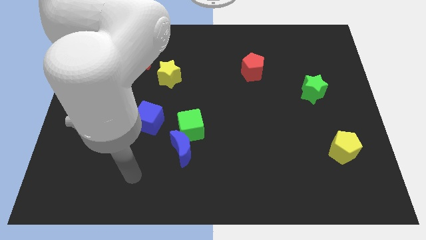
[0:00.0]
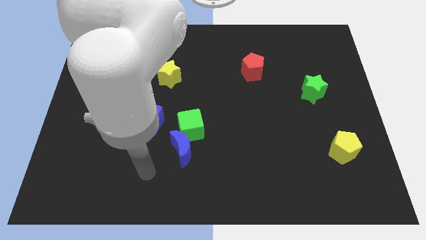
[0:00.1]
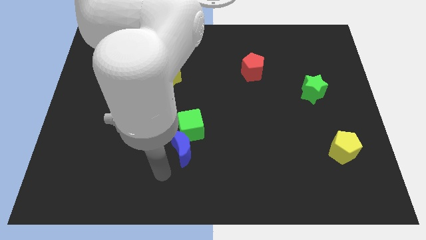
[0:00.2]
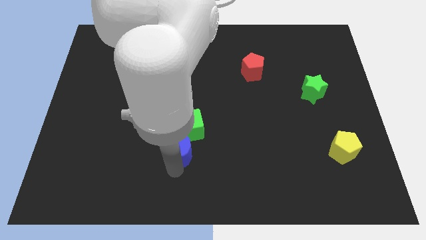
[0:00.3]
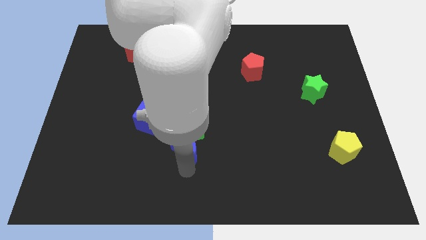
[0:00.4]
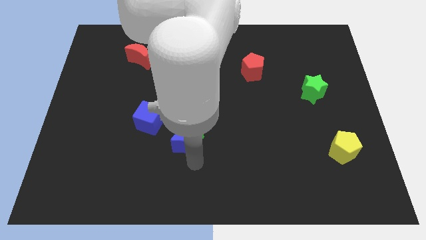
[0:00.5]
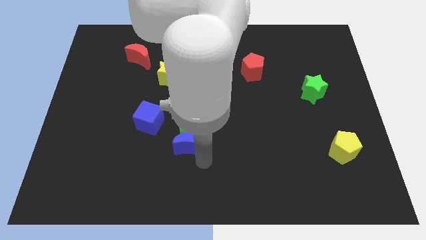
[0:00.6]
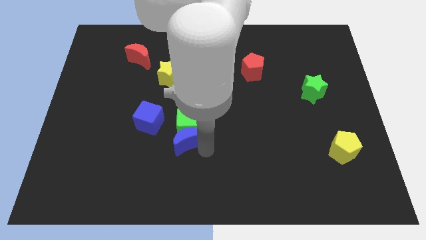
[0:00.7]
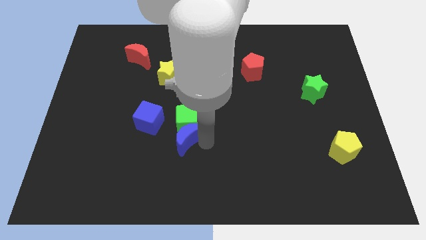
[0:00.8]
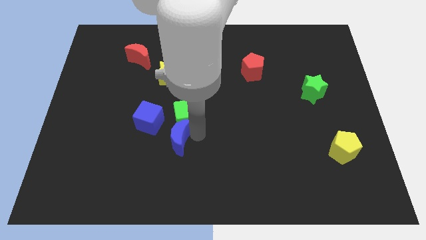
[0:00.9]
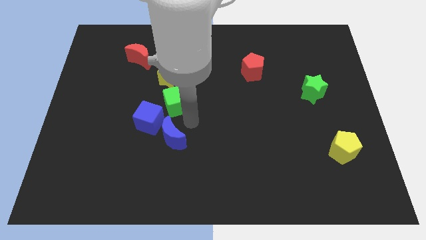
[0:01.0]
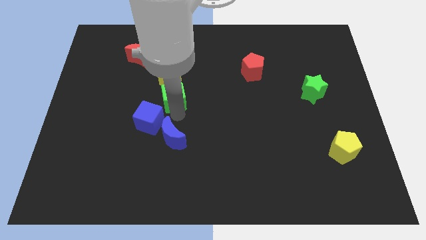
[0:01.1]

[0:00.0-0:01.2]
move the blue moon away from the green cube

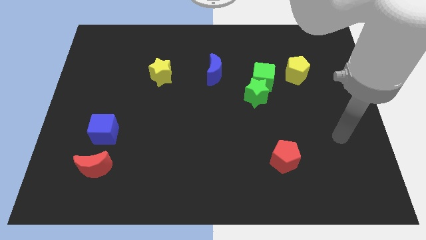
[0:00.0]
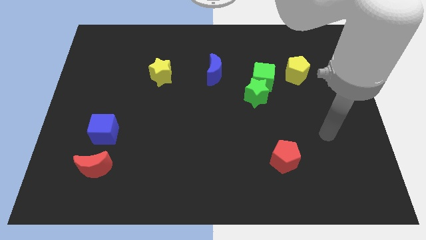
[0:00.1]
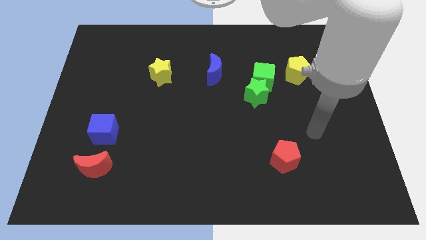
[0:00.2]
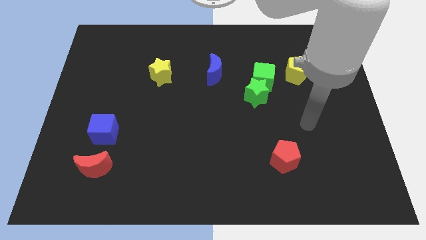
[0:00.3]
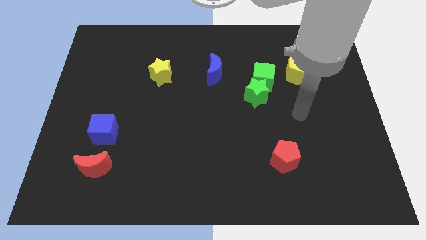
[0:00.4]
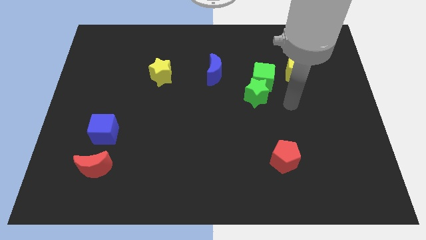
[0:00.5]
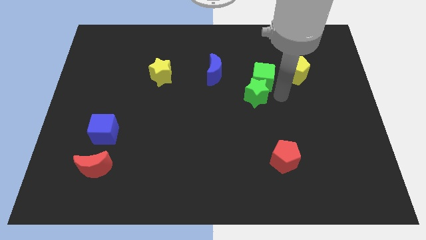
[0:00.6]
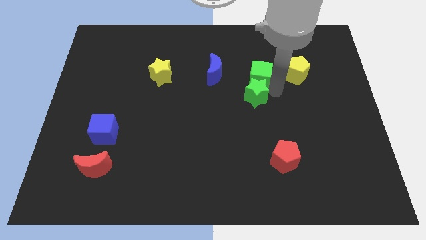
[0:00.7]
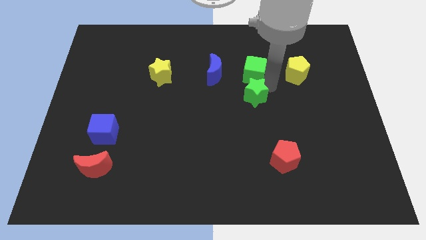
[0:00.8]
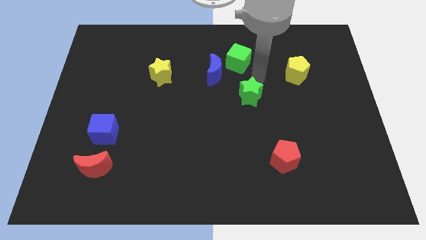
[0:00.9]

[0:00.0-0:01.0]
move the green star away from the green cube

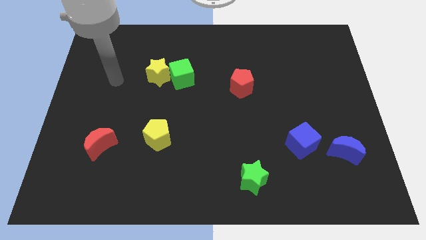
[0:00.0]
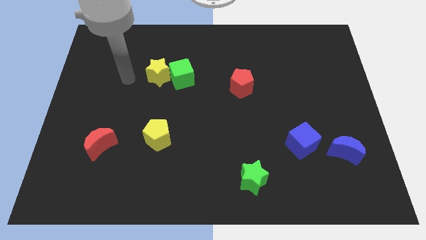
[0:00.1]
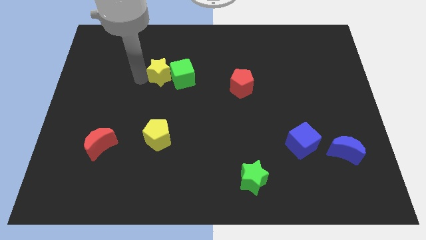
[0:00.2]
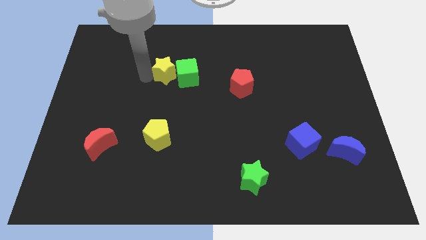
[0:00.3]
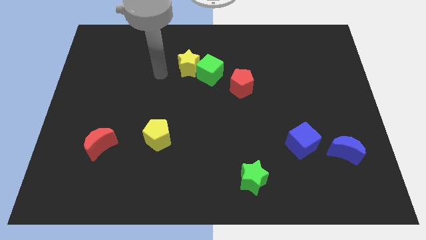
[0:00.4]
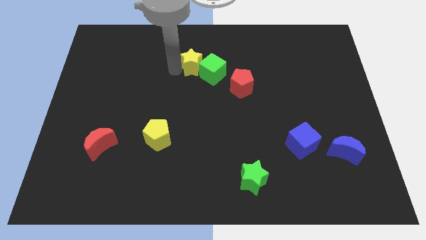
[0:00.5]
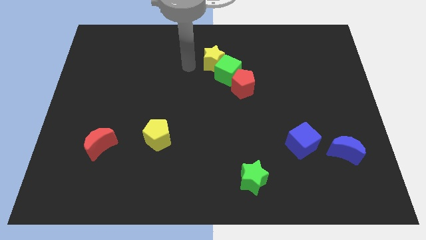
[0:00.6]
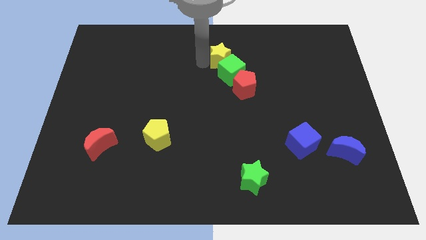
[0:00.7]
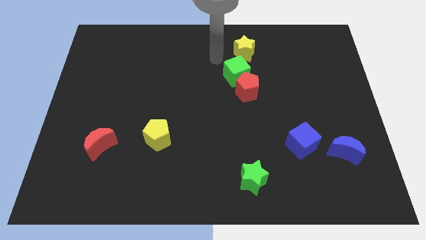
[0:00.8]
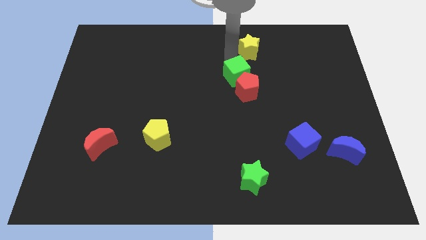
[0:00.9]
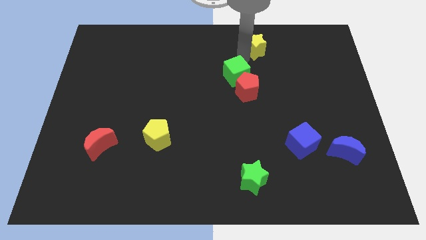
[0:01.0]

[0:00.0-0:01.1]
separate the green cube from the yellow star

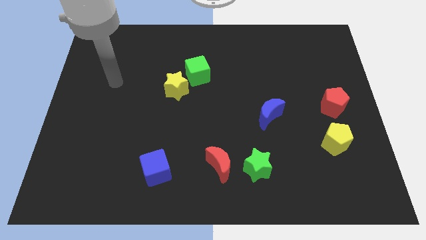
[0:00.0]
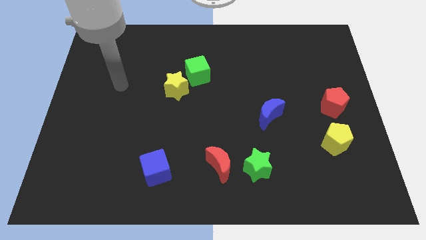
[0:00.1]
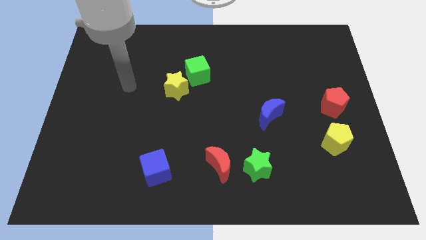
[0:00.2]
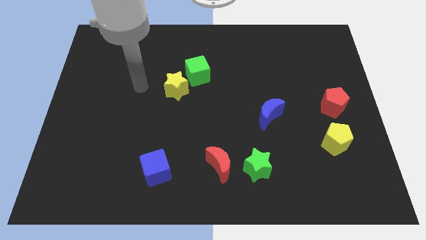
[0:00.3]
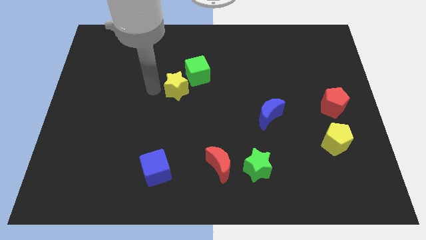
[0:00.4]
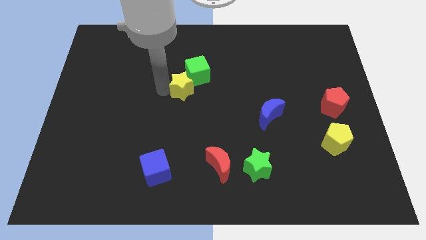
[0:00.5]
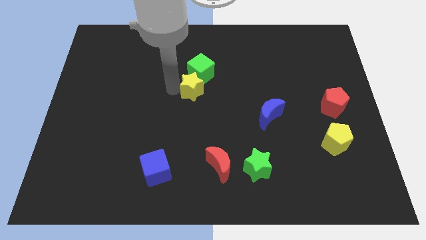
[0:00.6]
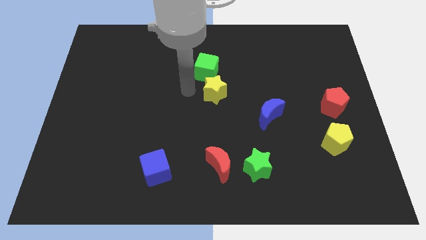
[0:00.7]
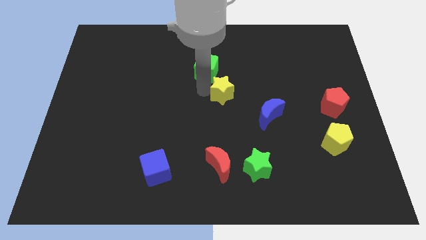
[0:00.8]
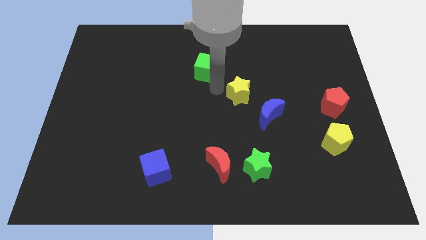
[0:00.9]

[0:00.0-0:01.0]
pull the green cube apart from the yellow star

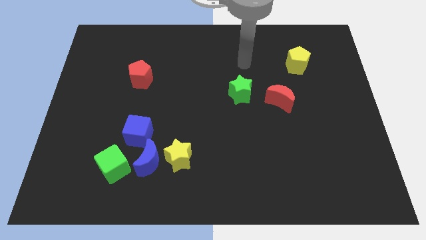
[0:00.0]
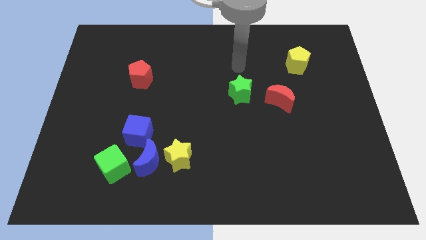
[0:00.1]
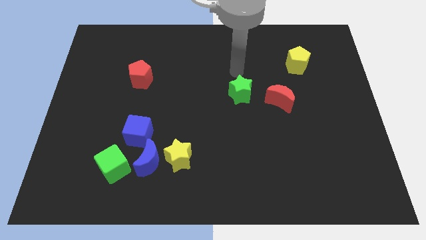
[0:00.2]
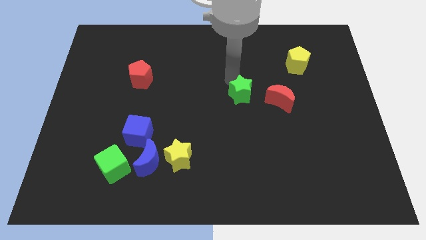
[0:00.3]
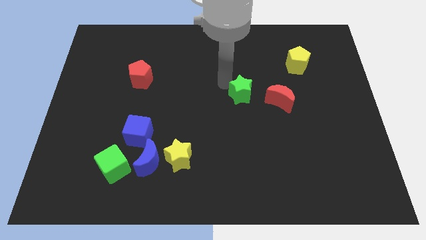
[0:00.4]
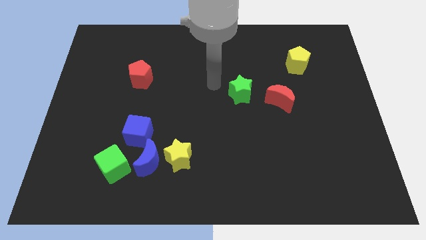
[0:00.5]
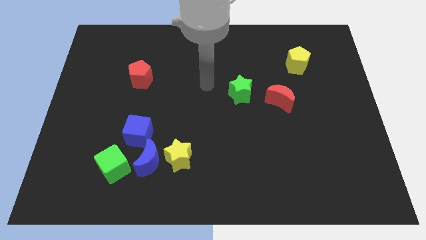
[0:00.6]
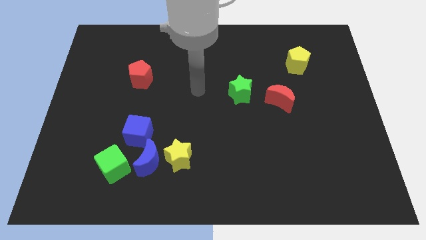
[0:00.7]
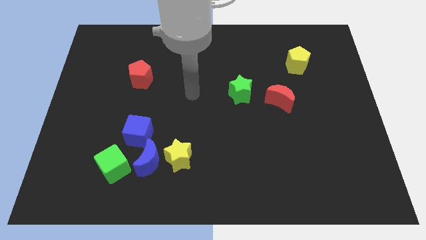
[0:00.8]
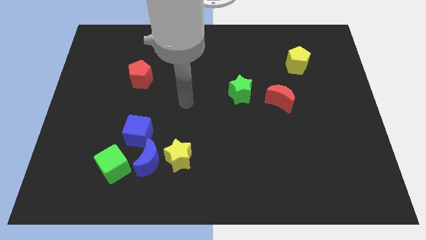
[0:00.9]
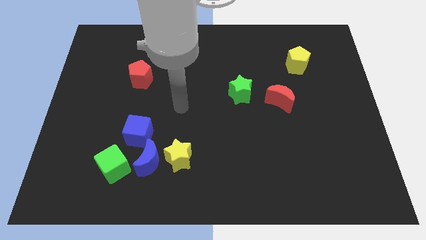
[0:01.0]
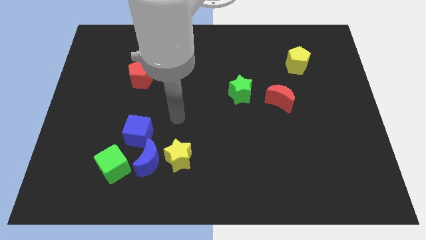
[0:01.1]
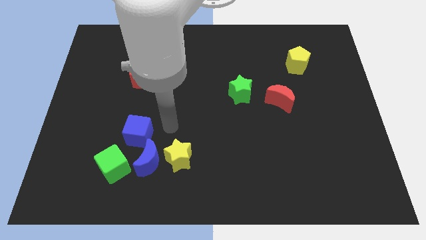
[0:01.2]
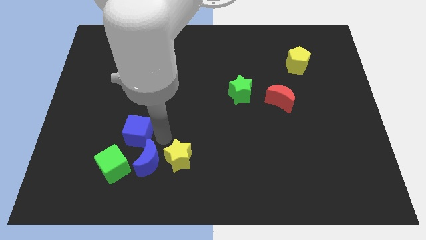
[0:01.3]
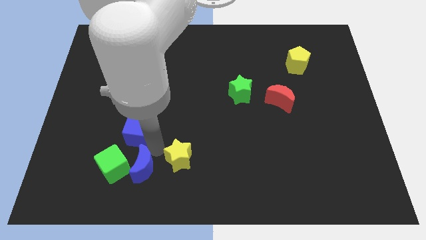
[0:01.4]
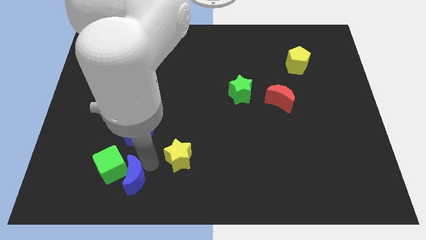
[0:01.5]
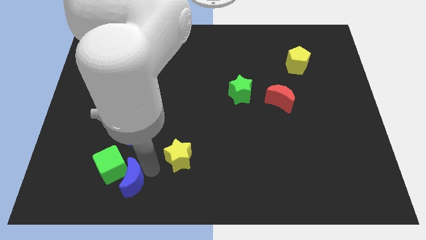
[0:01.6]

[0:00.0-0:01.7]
separate the yellow star from the blue moon

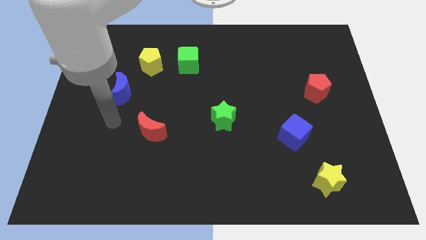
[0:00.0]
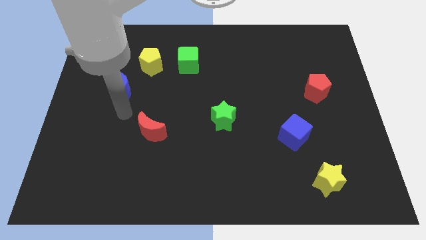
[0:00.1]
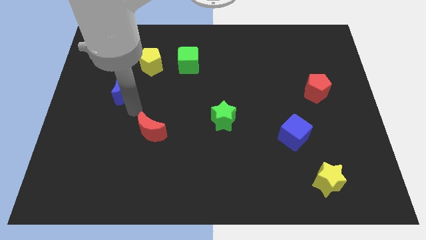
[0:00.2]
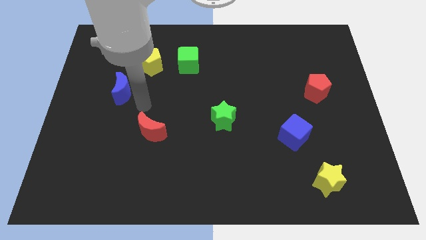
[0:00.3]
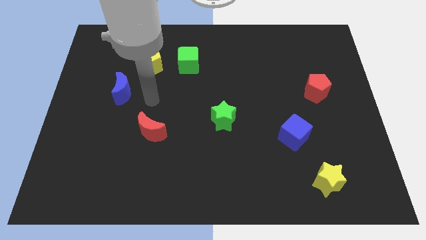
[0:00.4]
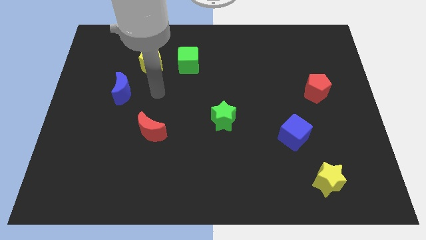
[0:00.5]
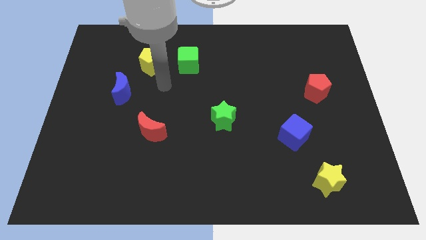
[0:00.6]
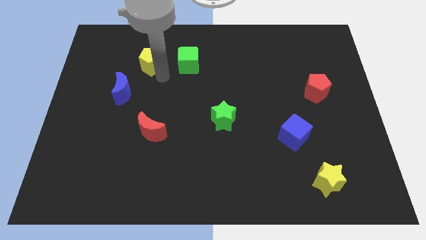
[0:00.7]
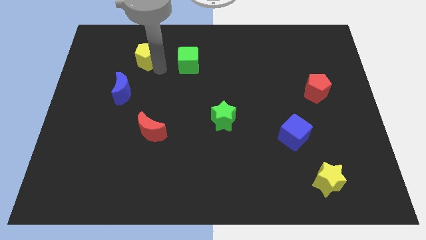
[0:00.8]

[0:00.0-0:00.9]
separate the green cube from the yellow pentagon

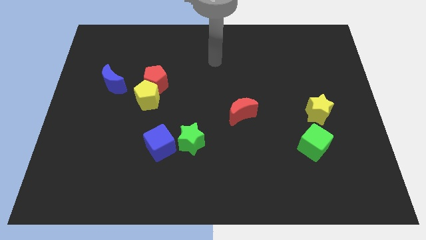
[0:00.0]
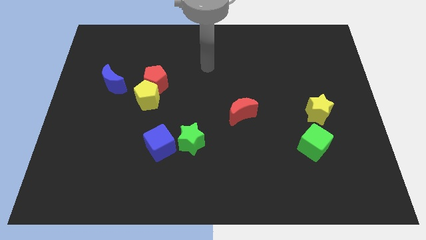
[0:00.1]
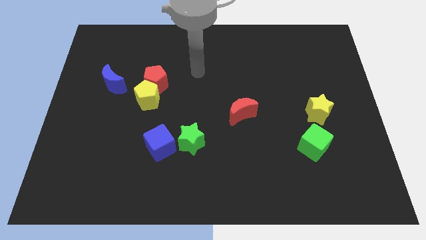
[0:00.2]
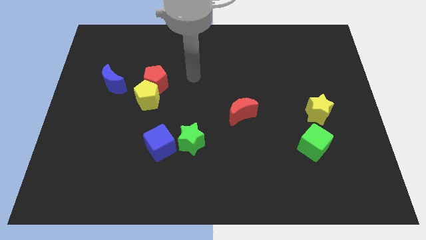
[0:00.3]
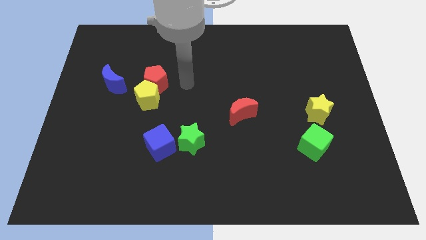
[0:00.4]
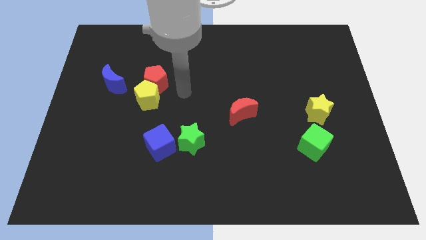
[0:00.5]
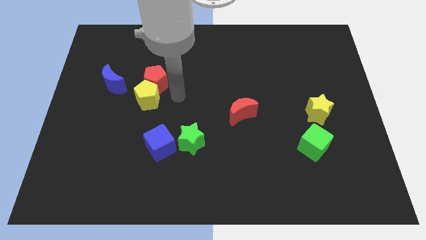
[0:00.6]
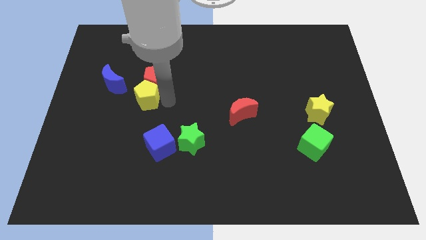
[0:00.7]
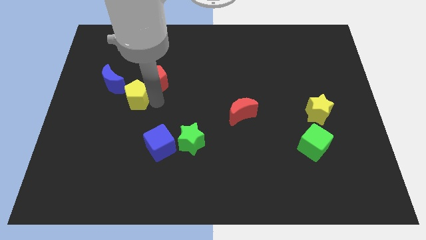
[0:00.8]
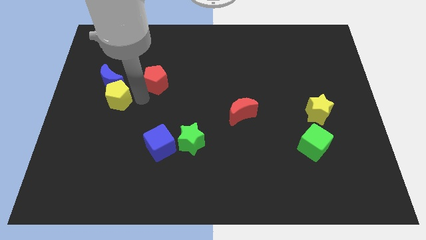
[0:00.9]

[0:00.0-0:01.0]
pull the red pentagon apart from the yellow pentagon

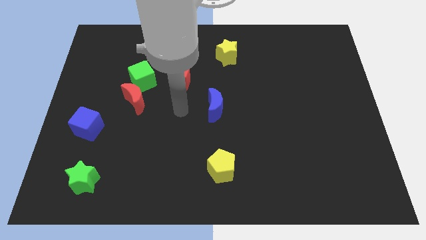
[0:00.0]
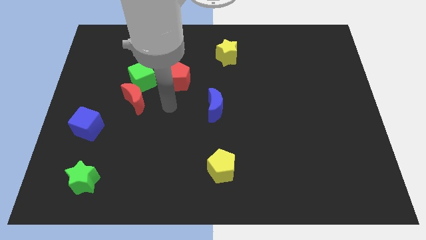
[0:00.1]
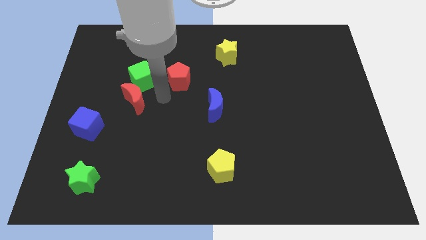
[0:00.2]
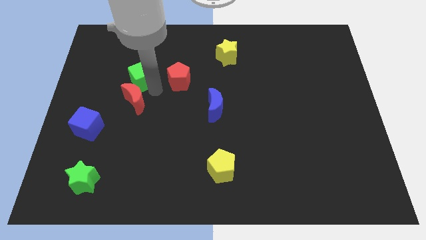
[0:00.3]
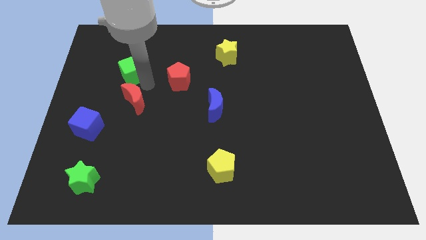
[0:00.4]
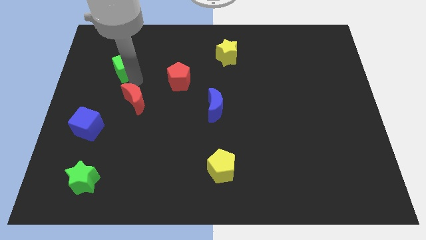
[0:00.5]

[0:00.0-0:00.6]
separate the red moon from the green cube

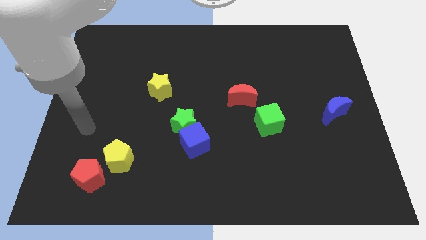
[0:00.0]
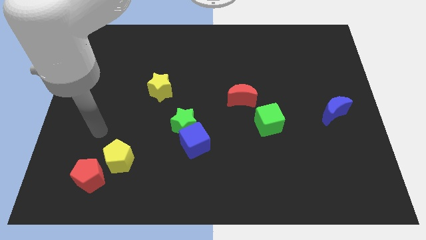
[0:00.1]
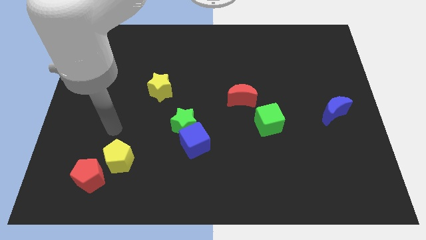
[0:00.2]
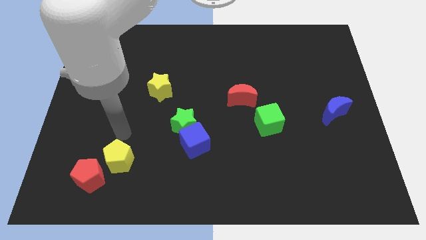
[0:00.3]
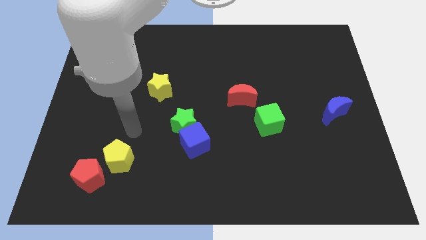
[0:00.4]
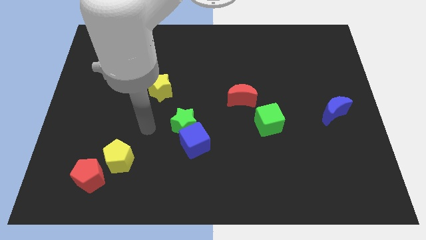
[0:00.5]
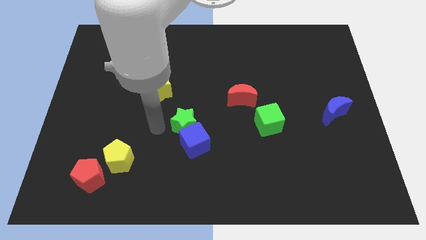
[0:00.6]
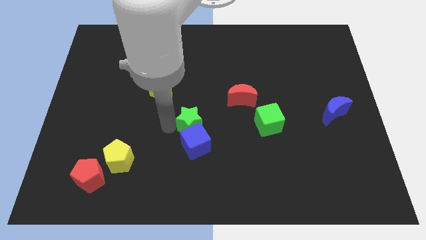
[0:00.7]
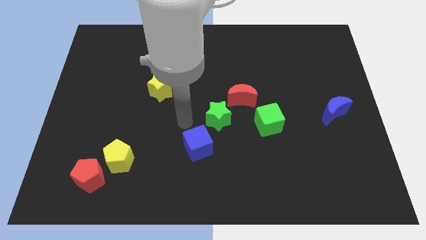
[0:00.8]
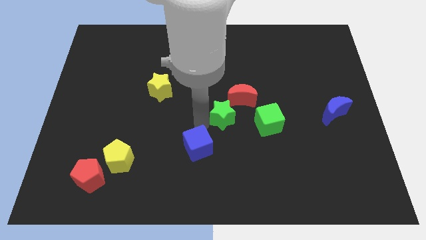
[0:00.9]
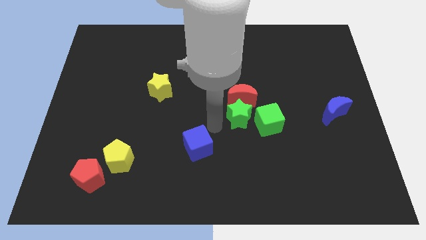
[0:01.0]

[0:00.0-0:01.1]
separate the blue cube from the green star
